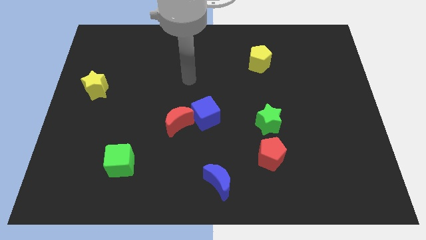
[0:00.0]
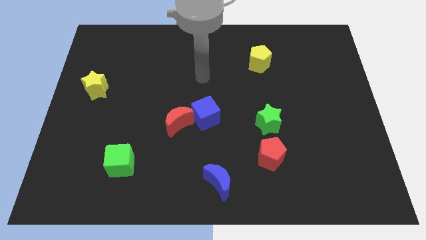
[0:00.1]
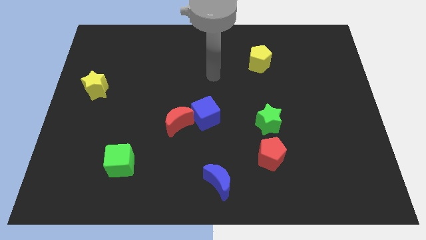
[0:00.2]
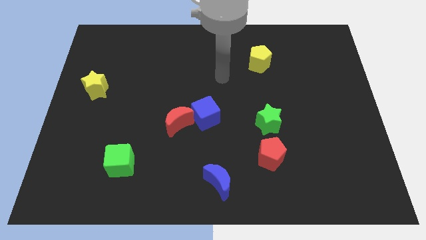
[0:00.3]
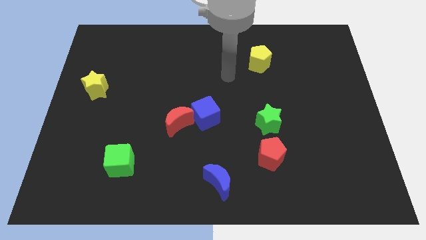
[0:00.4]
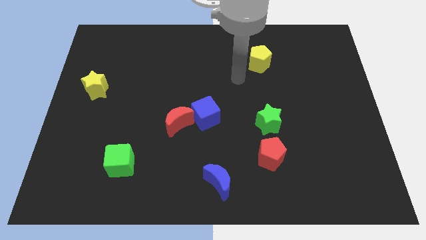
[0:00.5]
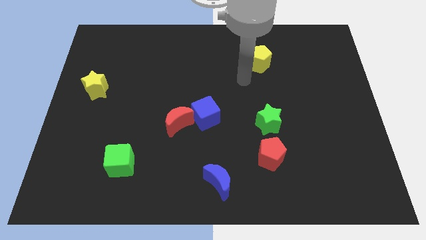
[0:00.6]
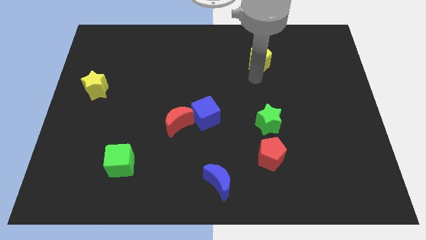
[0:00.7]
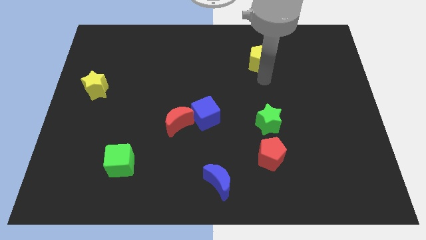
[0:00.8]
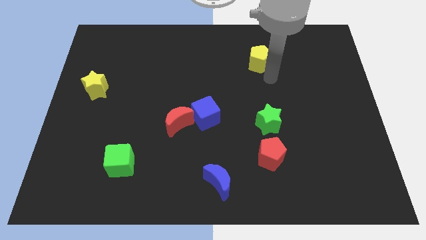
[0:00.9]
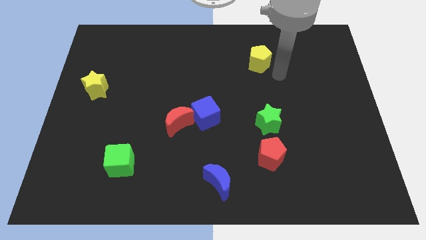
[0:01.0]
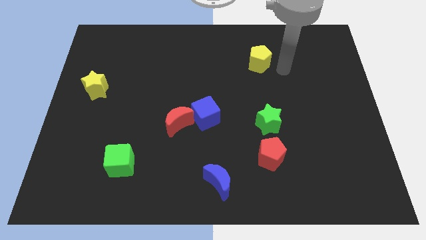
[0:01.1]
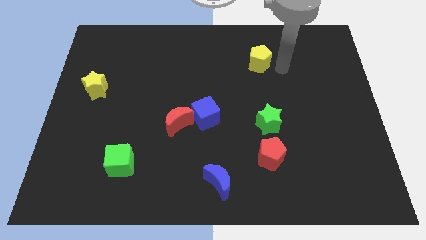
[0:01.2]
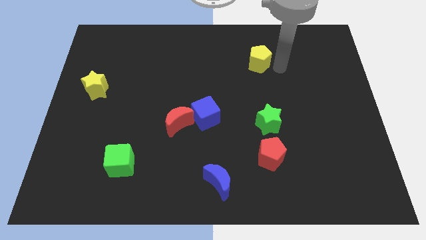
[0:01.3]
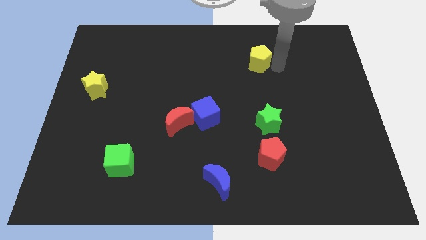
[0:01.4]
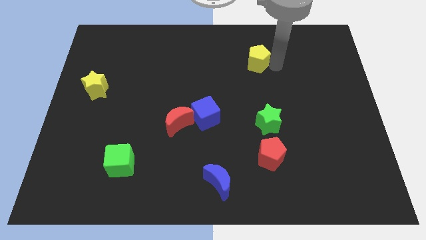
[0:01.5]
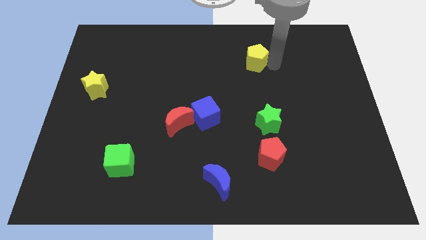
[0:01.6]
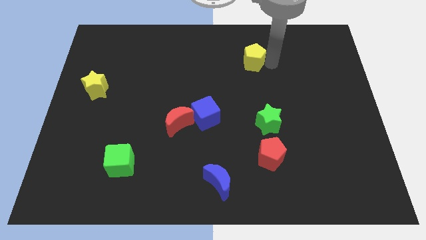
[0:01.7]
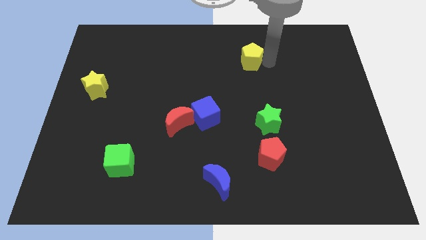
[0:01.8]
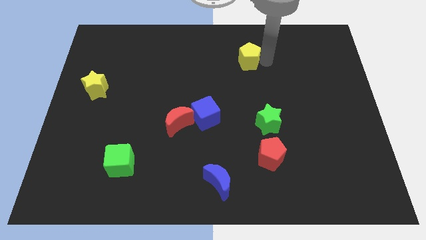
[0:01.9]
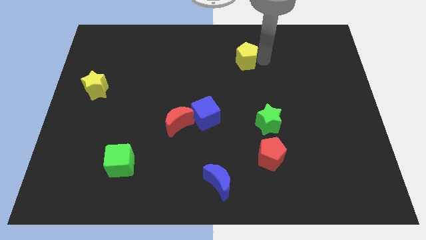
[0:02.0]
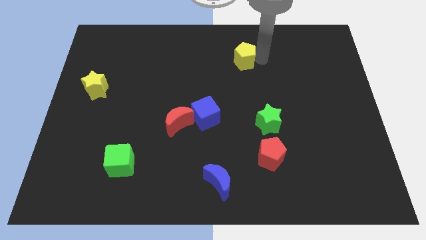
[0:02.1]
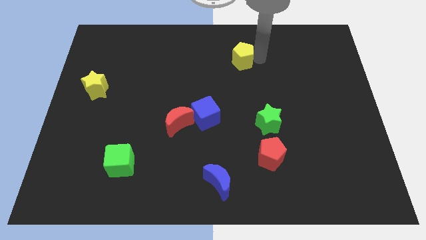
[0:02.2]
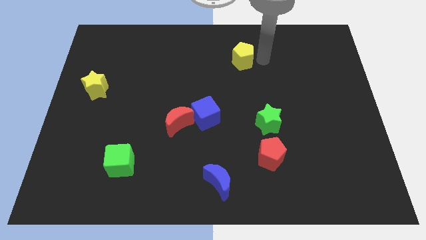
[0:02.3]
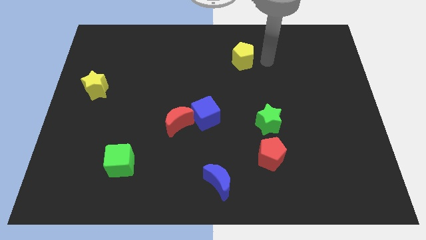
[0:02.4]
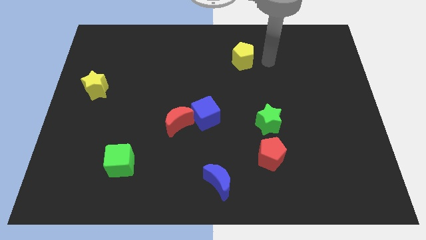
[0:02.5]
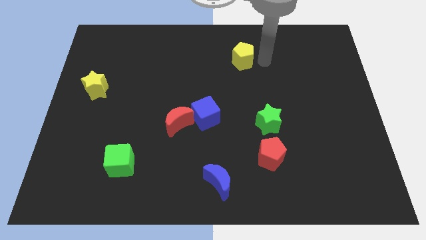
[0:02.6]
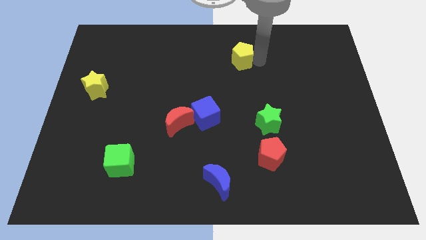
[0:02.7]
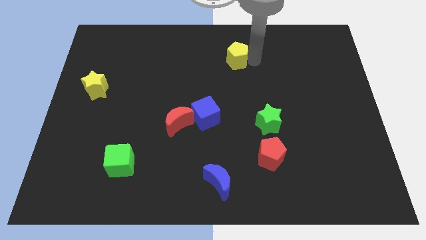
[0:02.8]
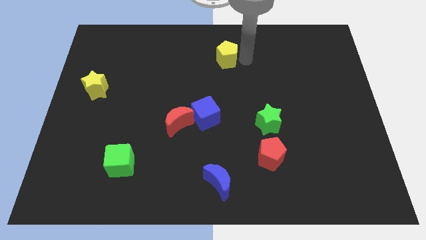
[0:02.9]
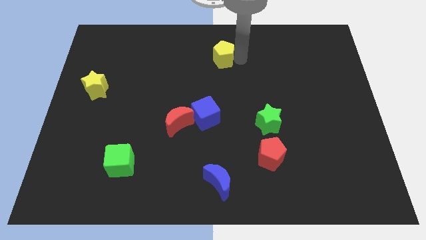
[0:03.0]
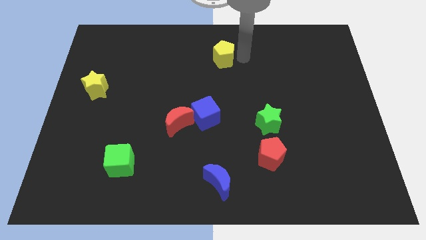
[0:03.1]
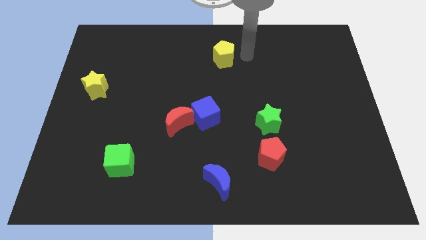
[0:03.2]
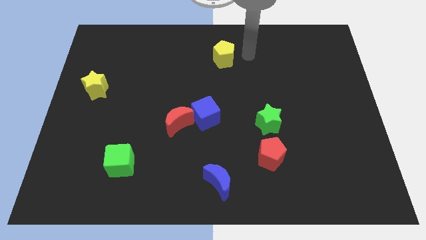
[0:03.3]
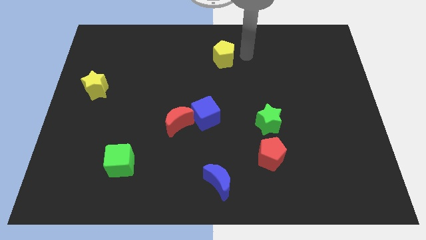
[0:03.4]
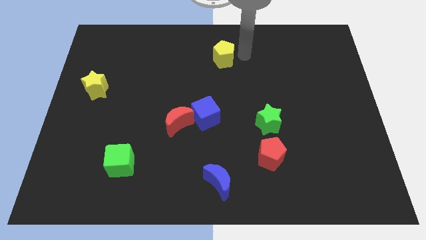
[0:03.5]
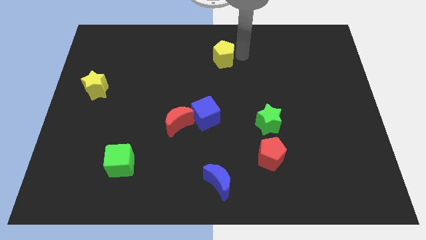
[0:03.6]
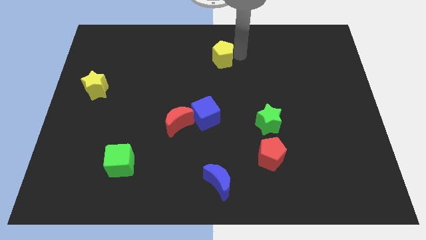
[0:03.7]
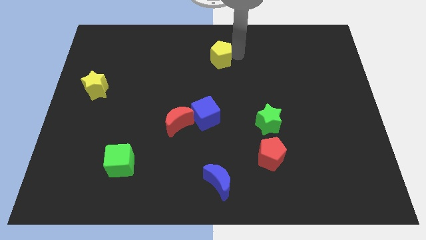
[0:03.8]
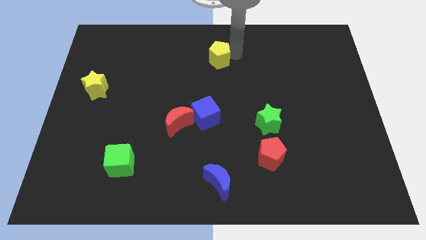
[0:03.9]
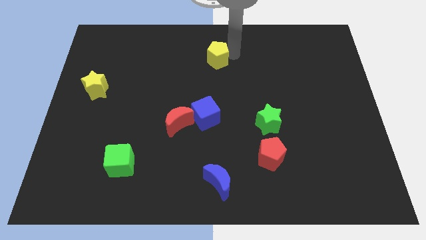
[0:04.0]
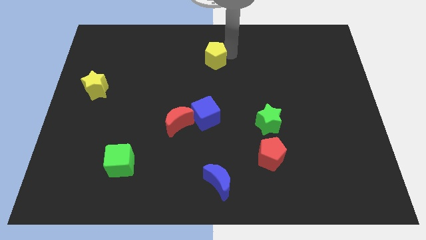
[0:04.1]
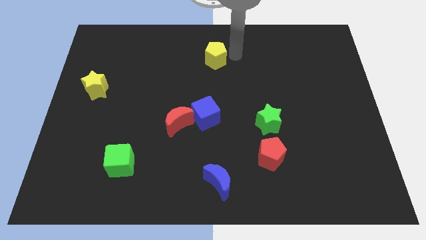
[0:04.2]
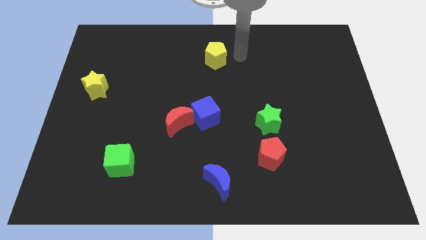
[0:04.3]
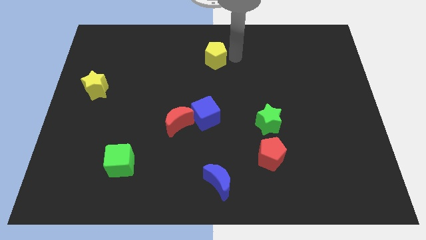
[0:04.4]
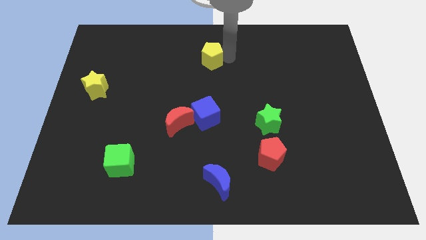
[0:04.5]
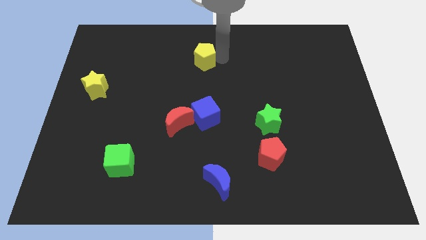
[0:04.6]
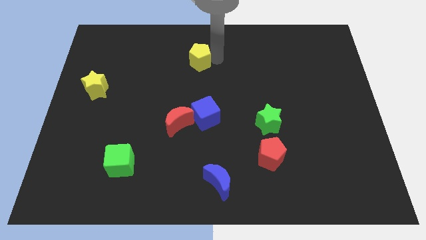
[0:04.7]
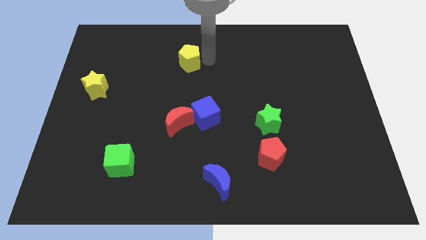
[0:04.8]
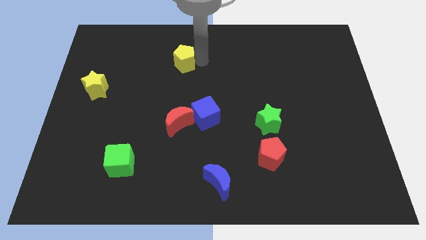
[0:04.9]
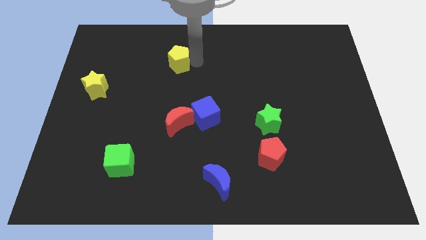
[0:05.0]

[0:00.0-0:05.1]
move the yellow pentagon left

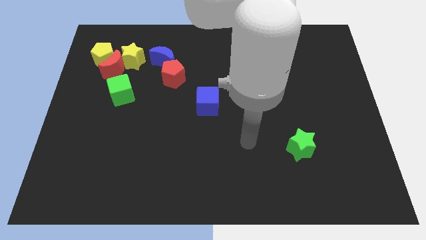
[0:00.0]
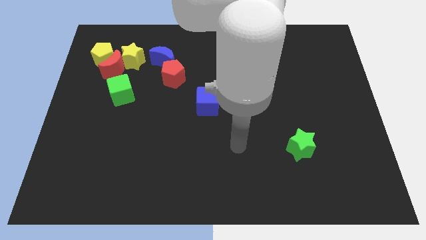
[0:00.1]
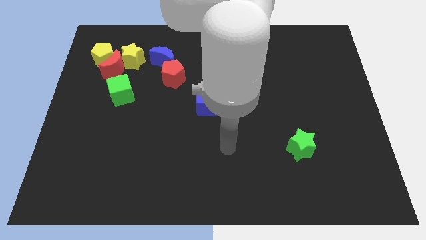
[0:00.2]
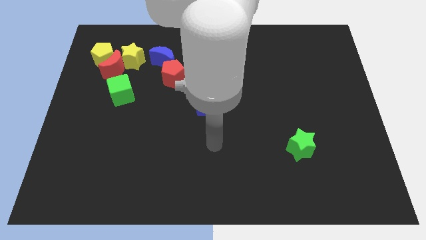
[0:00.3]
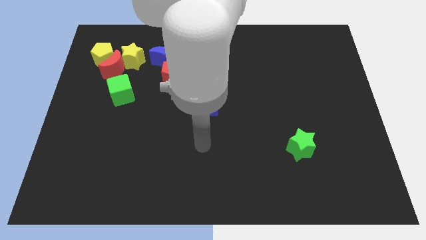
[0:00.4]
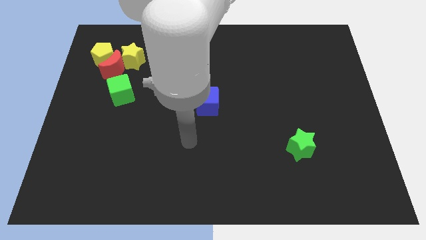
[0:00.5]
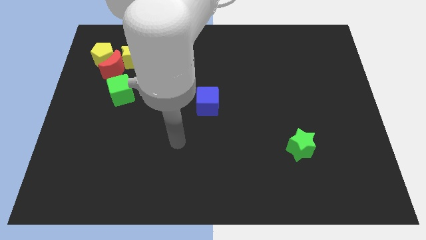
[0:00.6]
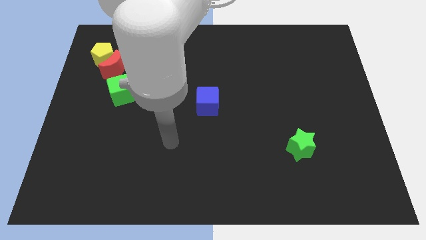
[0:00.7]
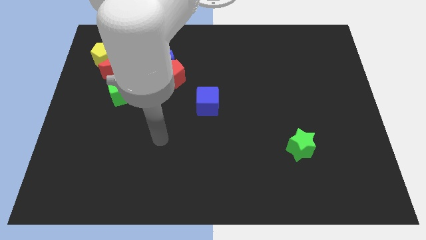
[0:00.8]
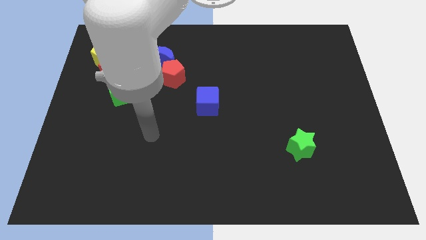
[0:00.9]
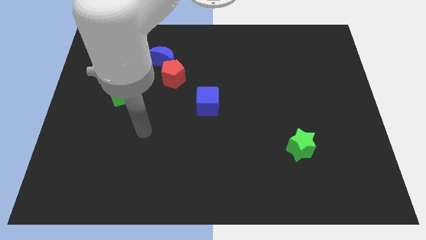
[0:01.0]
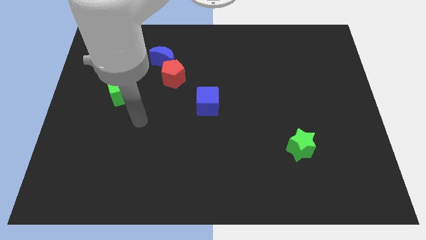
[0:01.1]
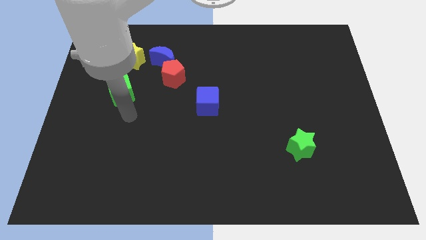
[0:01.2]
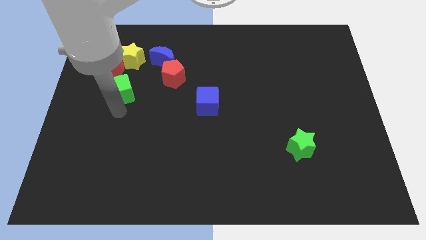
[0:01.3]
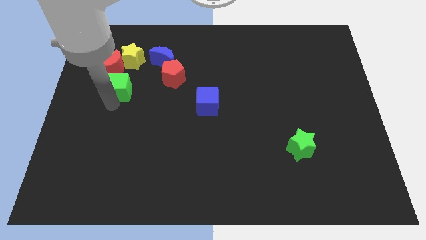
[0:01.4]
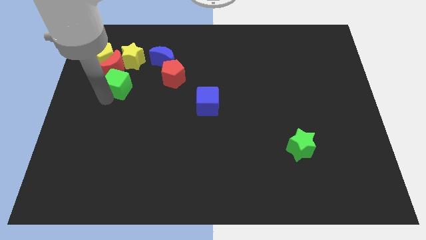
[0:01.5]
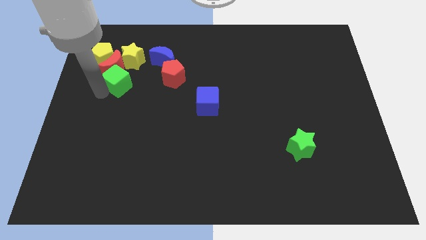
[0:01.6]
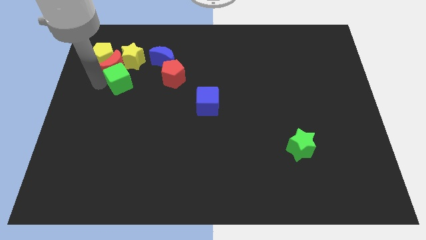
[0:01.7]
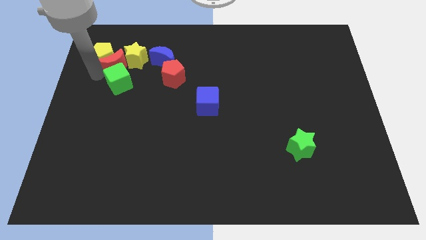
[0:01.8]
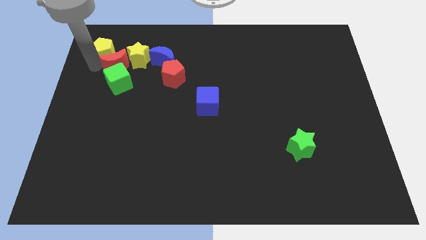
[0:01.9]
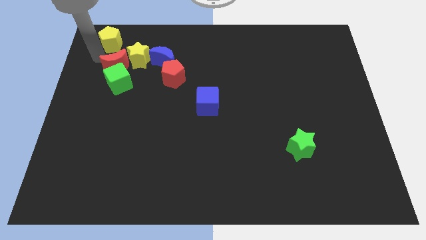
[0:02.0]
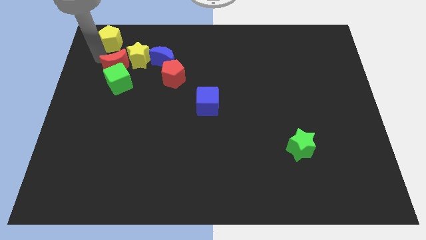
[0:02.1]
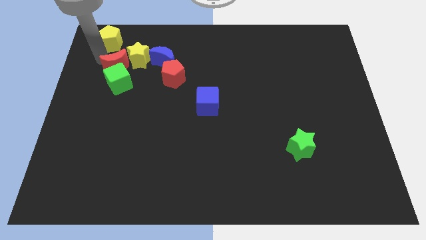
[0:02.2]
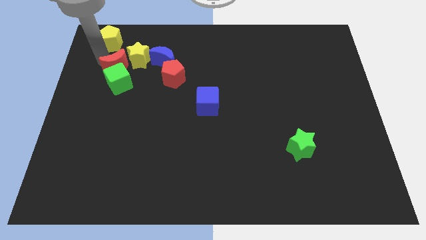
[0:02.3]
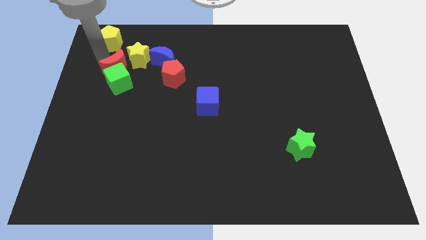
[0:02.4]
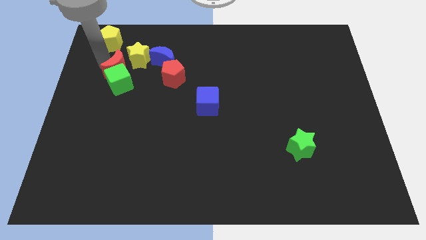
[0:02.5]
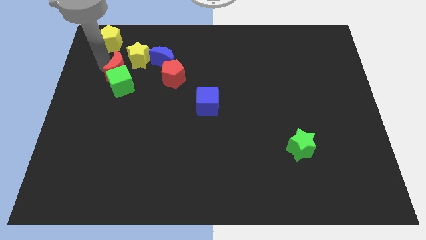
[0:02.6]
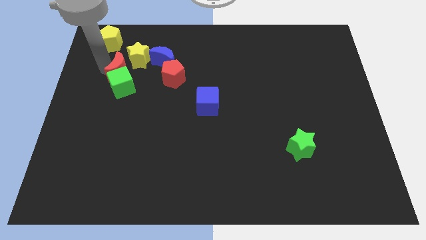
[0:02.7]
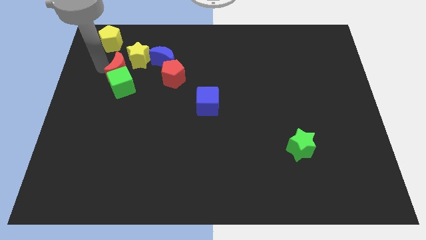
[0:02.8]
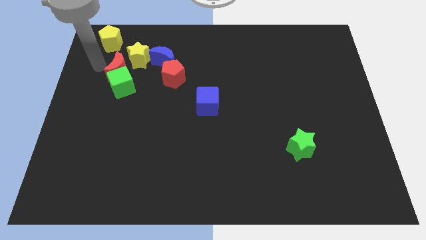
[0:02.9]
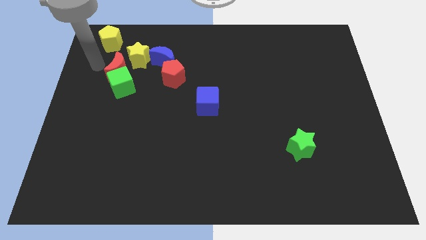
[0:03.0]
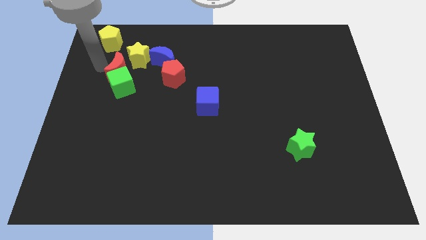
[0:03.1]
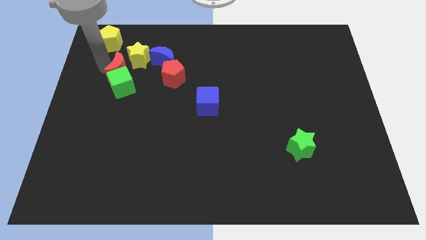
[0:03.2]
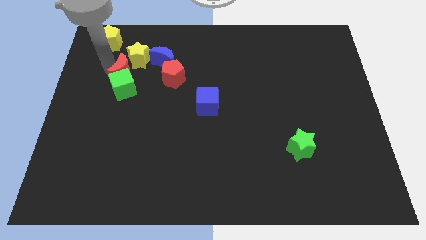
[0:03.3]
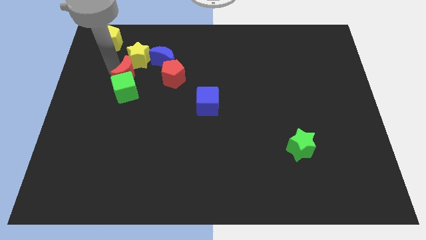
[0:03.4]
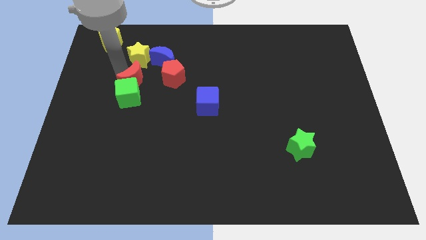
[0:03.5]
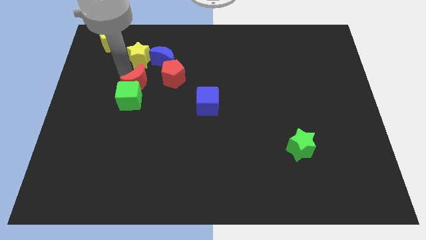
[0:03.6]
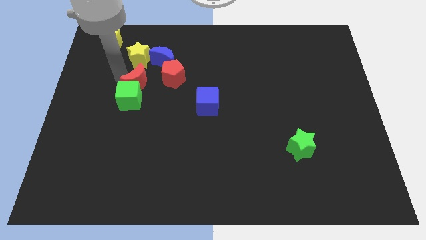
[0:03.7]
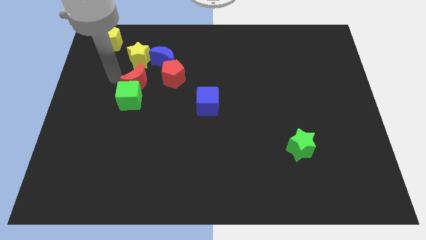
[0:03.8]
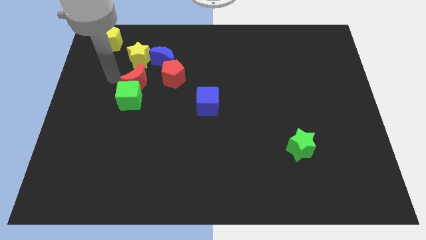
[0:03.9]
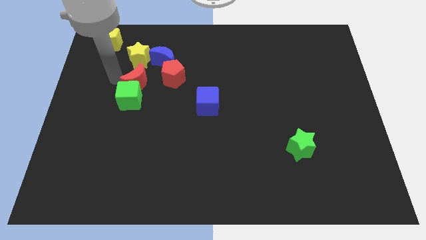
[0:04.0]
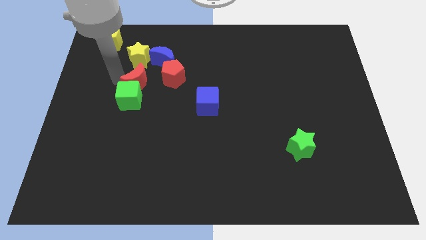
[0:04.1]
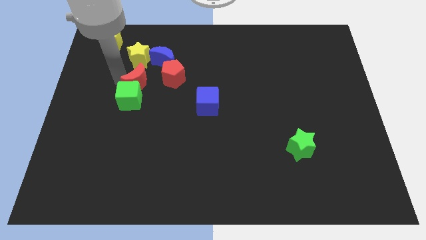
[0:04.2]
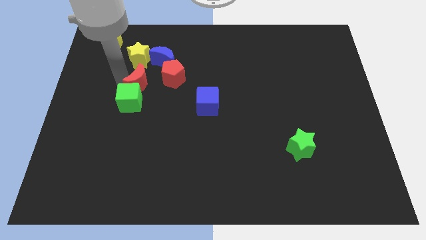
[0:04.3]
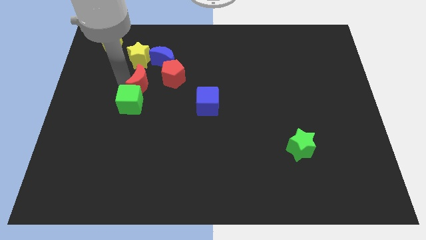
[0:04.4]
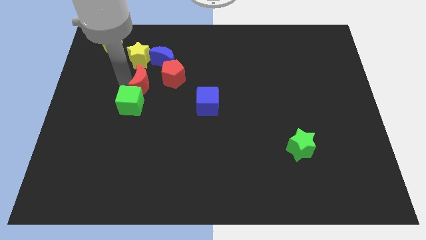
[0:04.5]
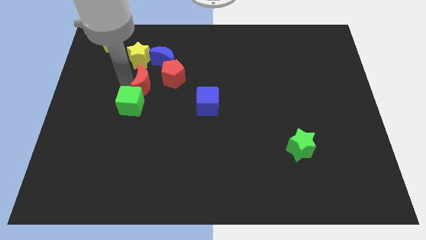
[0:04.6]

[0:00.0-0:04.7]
push the red moon to the right a bit
